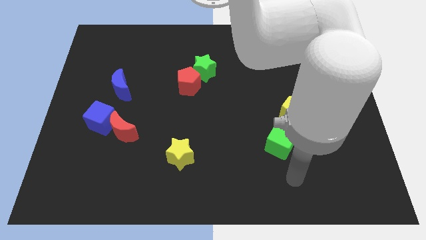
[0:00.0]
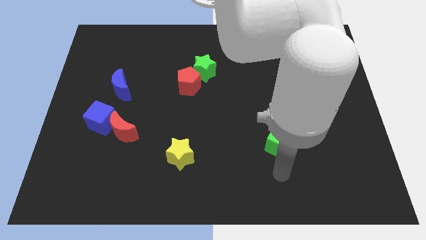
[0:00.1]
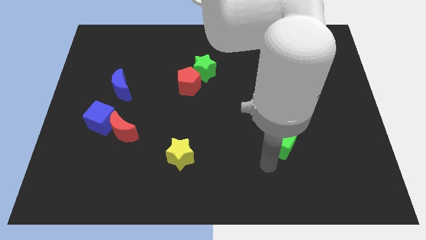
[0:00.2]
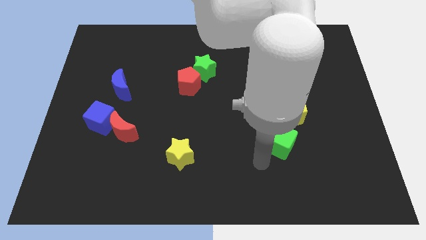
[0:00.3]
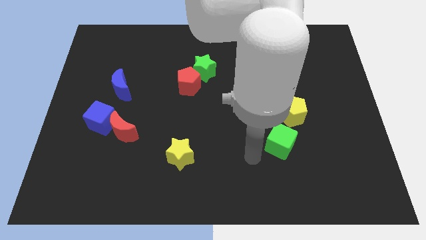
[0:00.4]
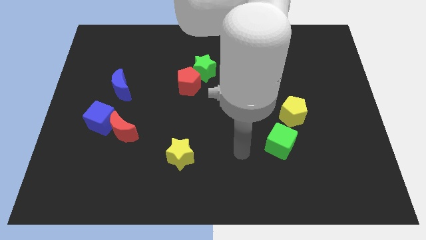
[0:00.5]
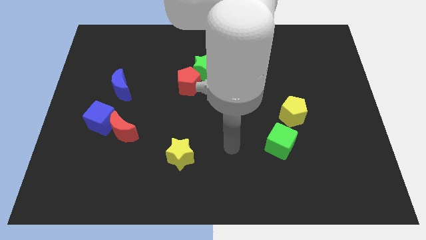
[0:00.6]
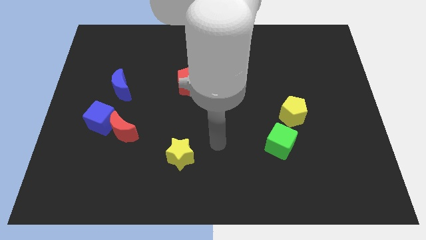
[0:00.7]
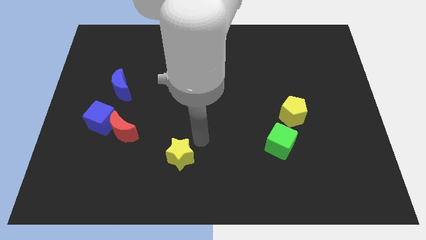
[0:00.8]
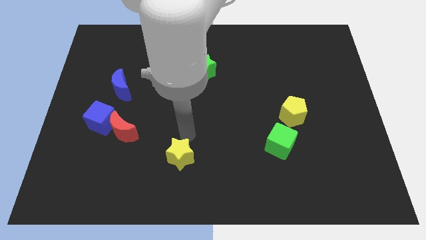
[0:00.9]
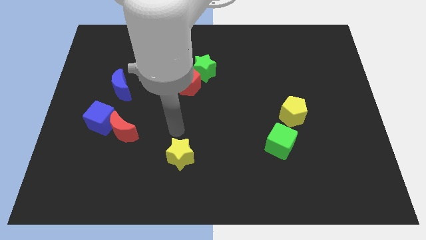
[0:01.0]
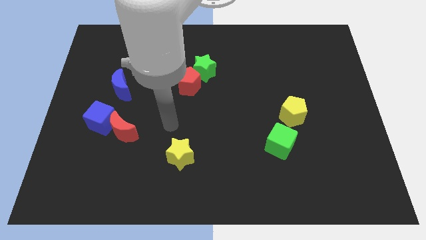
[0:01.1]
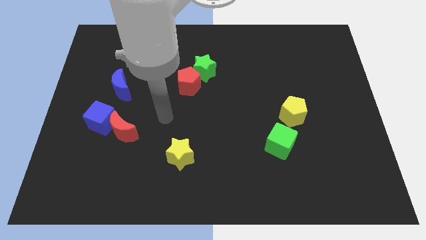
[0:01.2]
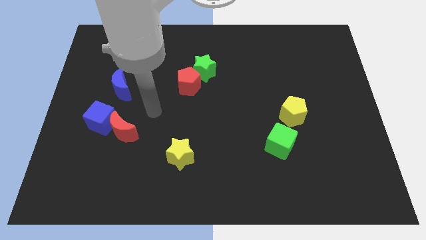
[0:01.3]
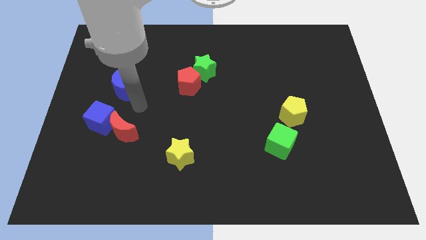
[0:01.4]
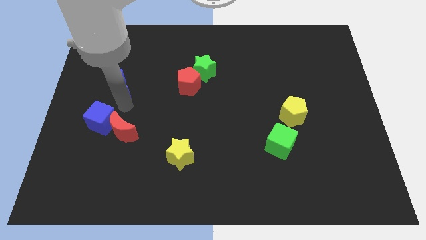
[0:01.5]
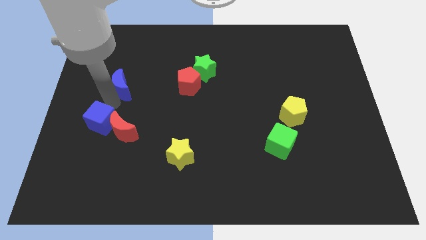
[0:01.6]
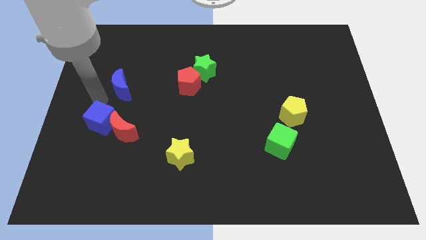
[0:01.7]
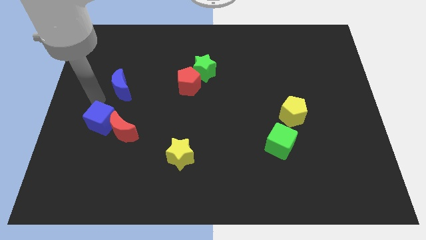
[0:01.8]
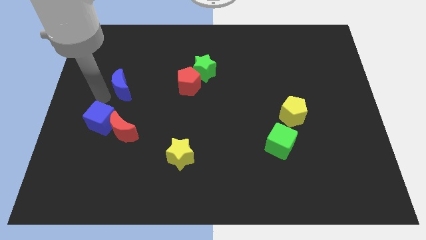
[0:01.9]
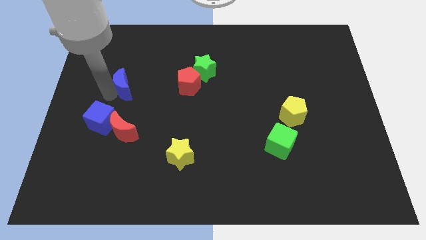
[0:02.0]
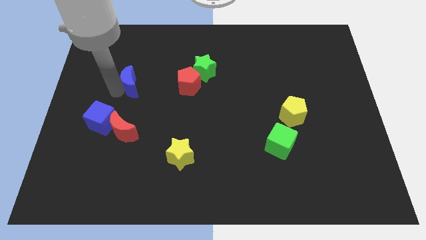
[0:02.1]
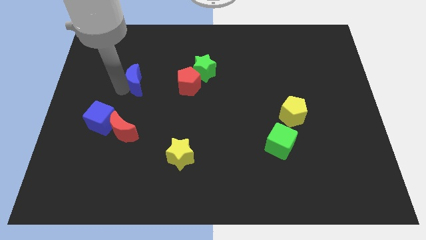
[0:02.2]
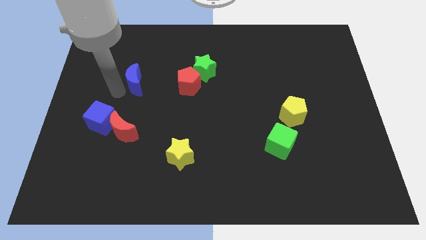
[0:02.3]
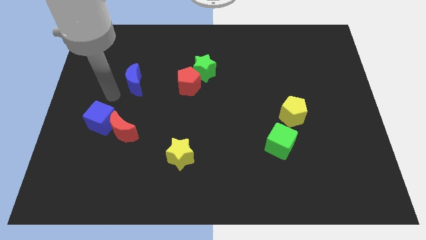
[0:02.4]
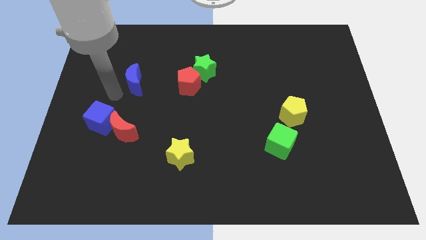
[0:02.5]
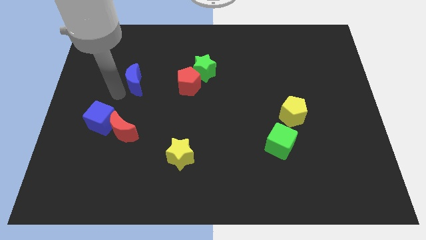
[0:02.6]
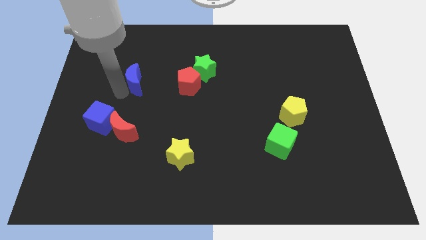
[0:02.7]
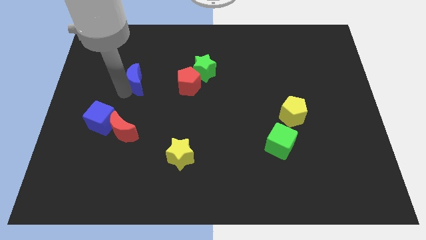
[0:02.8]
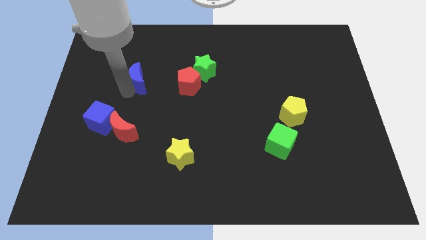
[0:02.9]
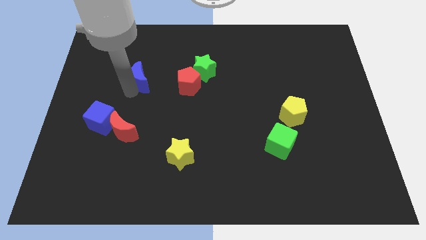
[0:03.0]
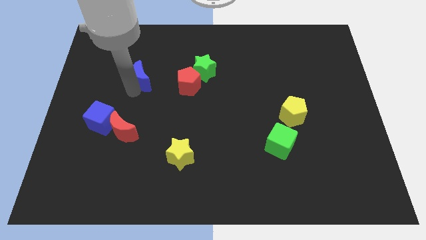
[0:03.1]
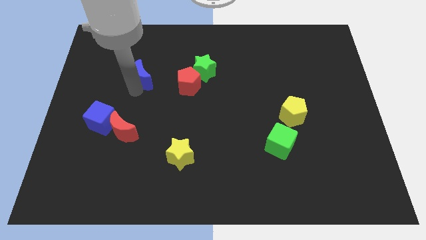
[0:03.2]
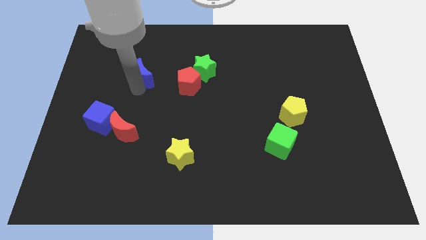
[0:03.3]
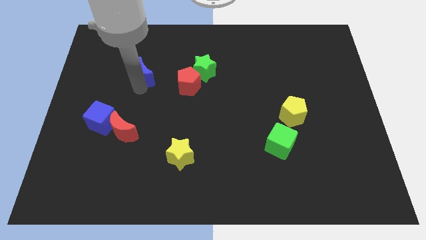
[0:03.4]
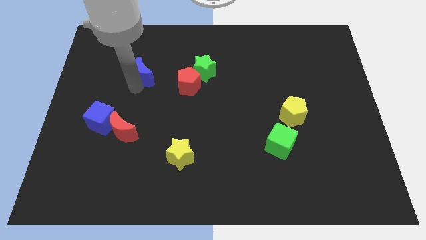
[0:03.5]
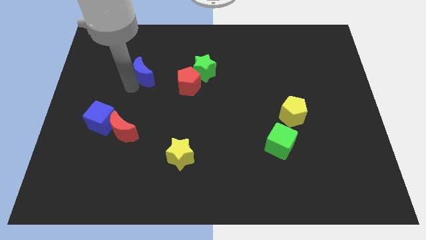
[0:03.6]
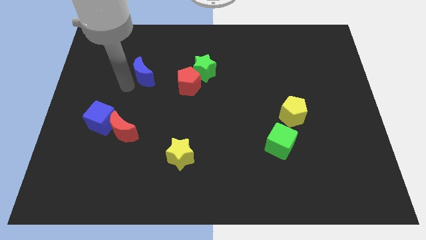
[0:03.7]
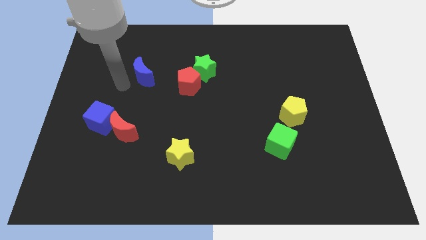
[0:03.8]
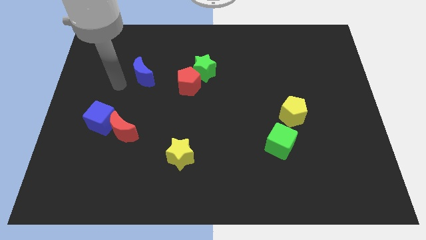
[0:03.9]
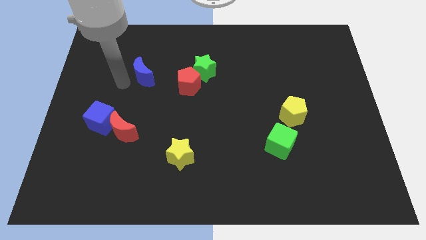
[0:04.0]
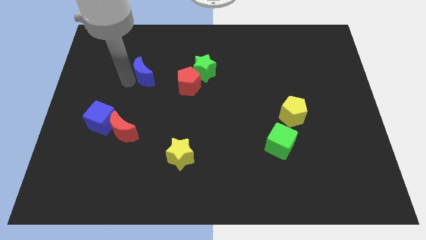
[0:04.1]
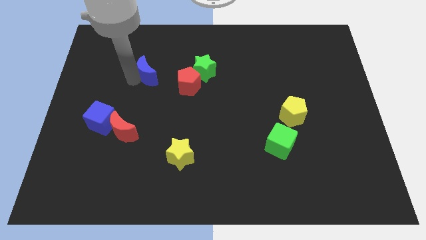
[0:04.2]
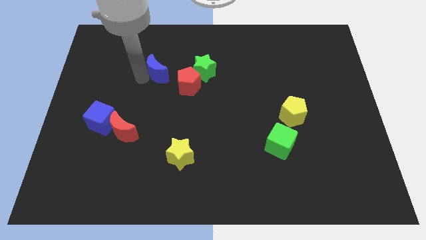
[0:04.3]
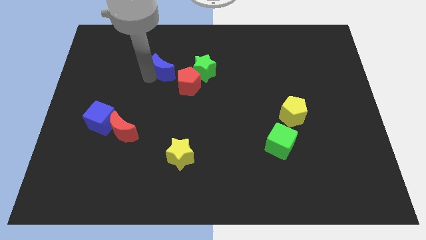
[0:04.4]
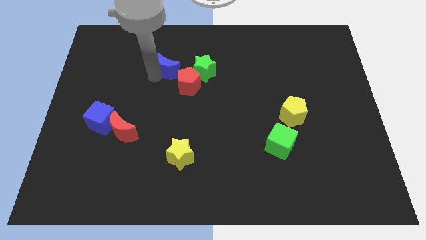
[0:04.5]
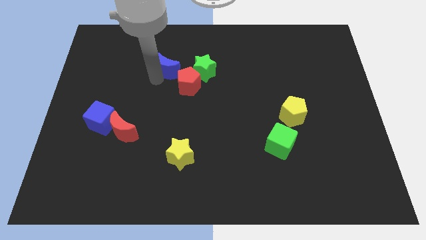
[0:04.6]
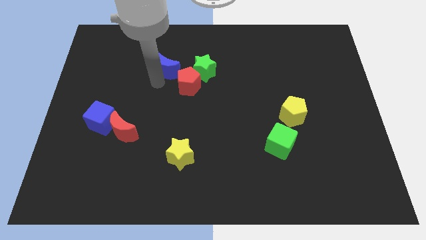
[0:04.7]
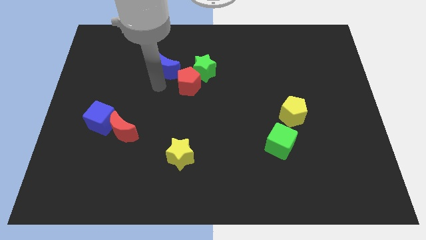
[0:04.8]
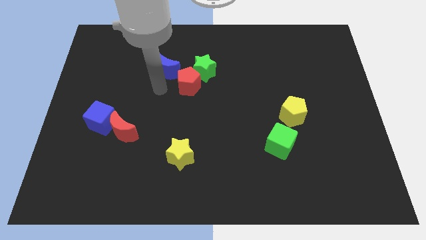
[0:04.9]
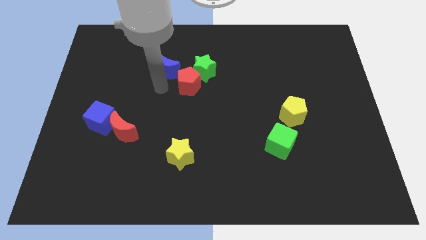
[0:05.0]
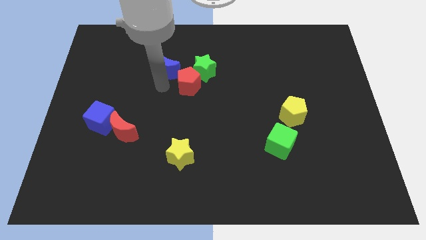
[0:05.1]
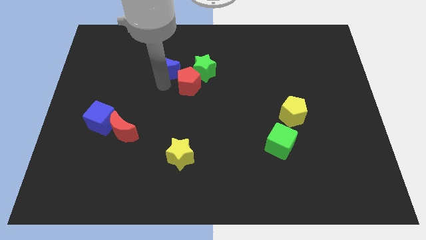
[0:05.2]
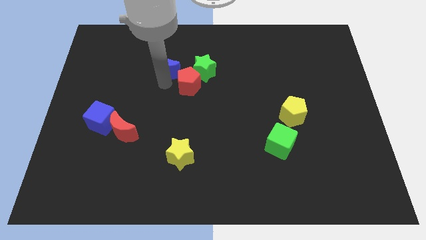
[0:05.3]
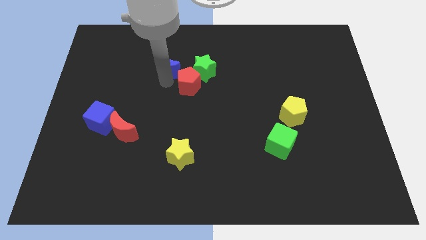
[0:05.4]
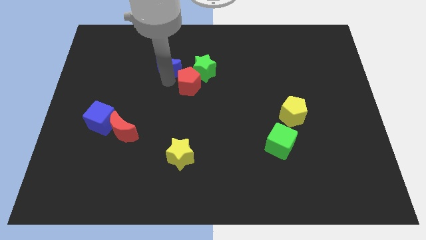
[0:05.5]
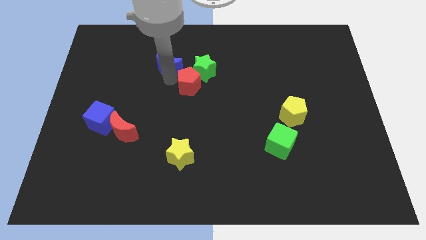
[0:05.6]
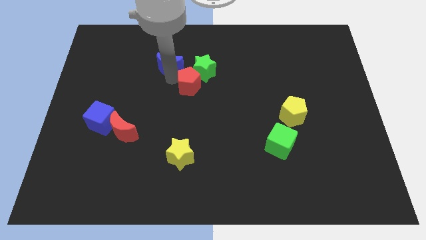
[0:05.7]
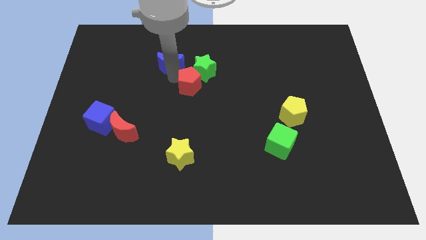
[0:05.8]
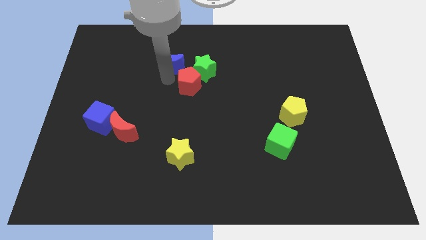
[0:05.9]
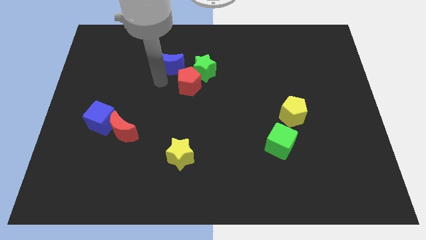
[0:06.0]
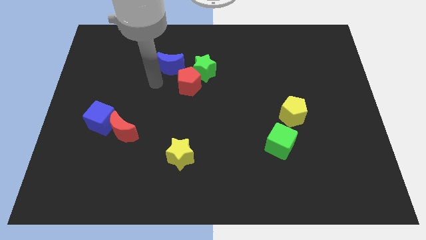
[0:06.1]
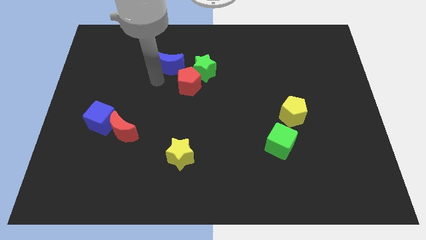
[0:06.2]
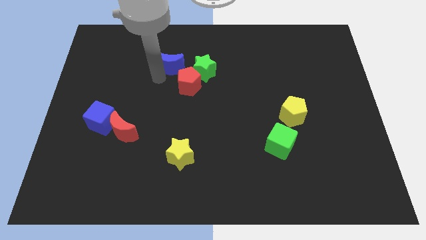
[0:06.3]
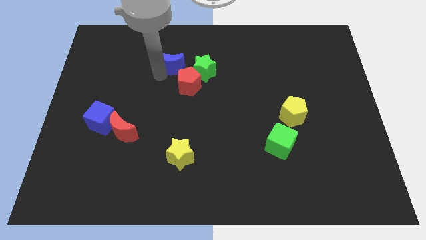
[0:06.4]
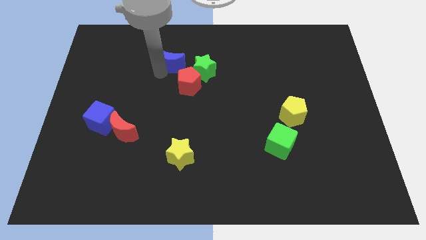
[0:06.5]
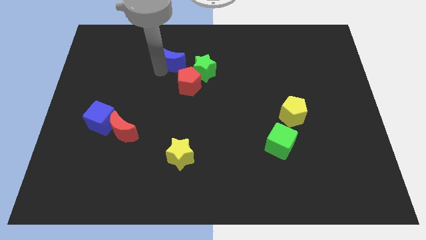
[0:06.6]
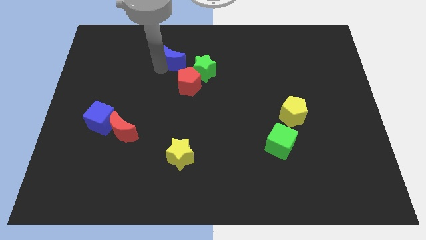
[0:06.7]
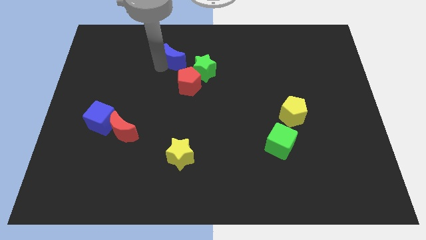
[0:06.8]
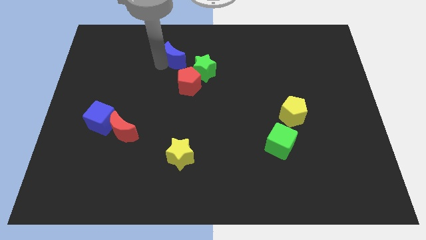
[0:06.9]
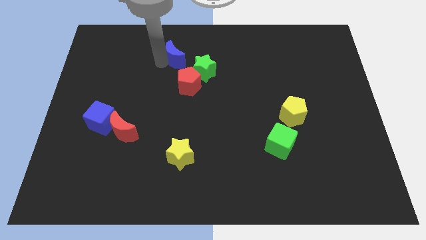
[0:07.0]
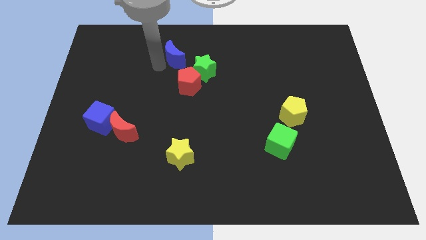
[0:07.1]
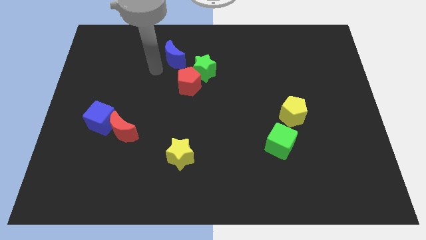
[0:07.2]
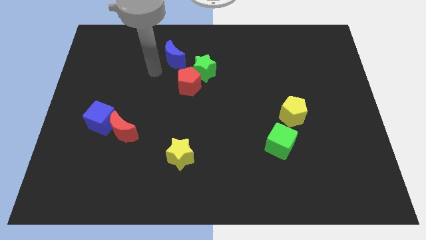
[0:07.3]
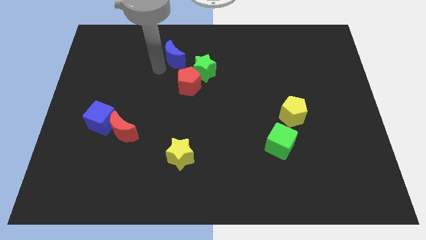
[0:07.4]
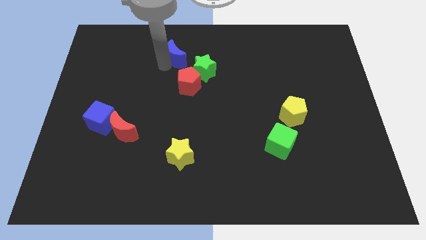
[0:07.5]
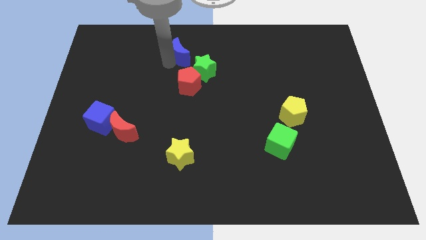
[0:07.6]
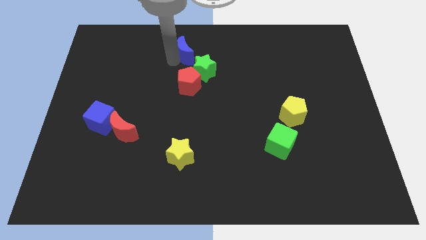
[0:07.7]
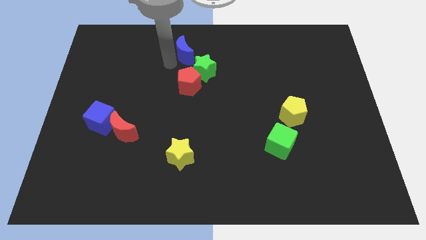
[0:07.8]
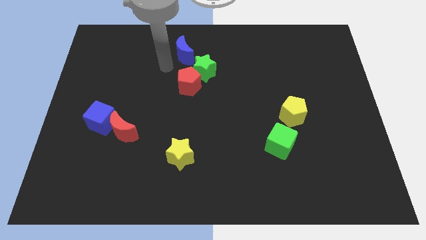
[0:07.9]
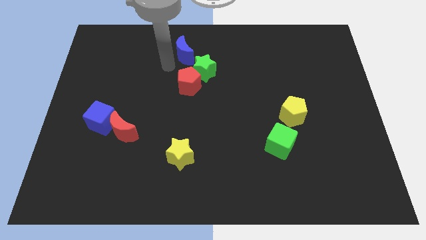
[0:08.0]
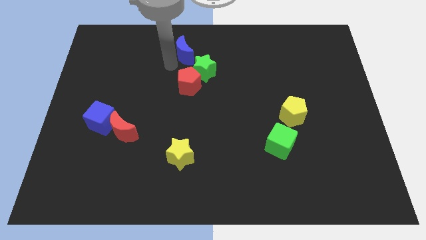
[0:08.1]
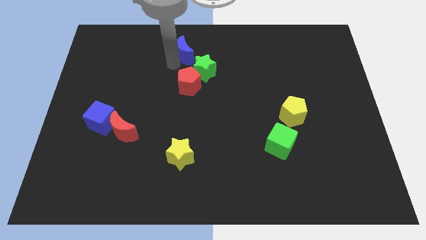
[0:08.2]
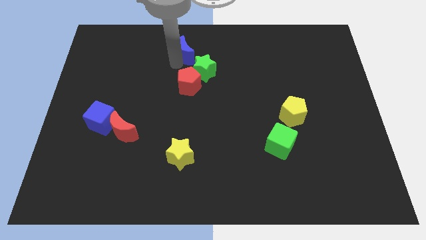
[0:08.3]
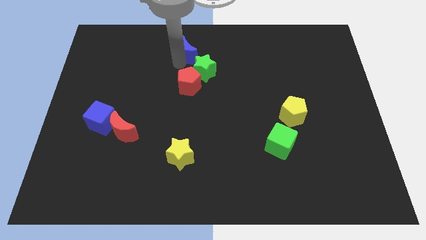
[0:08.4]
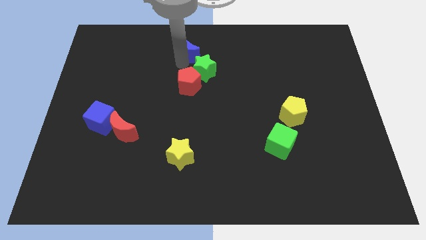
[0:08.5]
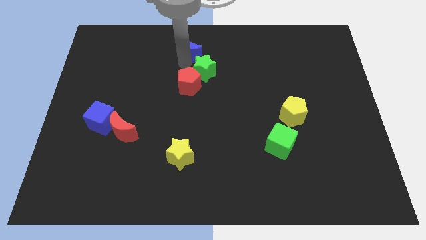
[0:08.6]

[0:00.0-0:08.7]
put the blue moon to the towards your base
